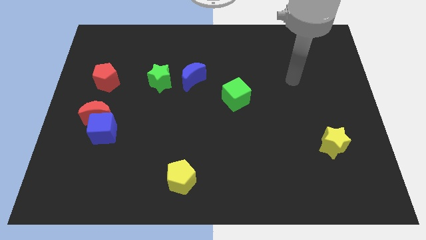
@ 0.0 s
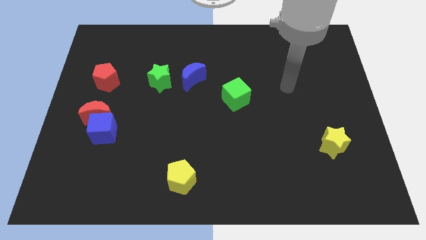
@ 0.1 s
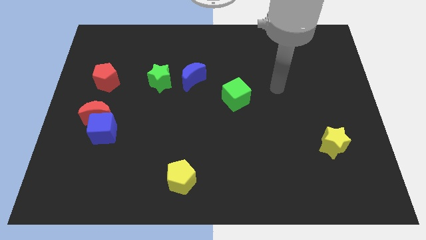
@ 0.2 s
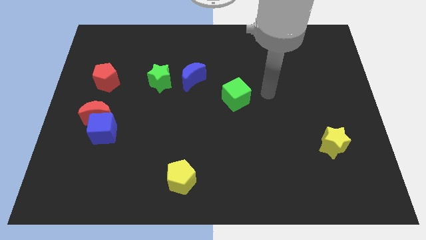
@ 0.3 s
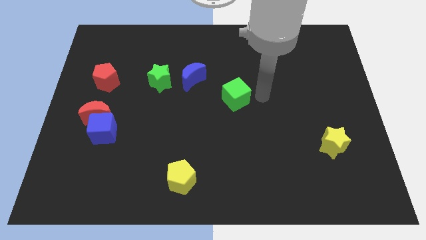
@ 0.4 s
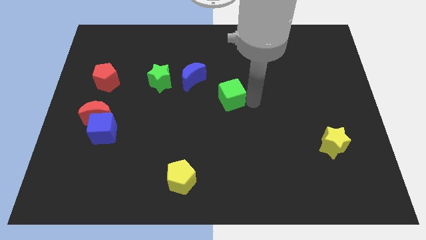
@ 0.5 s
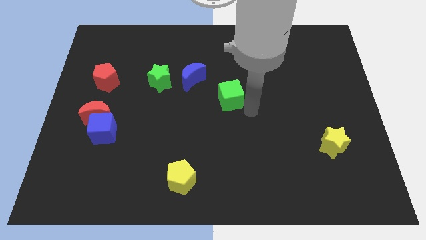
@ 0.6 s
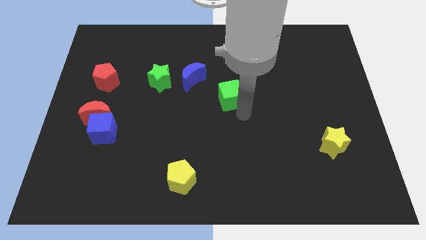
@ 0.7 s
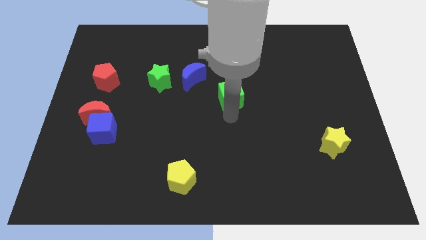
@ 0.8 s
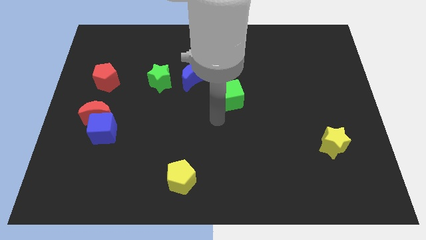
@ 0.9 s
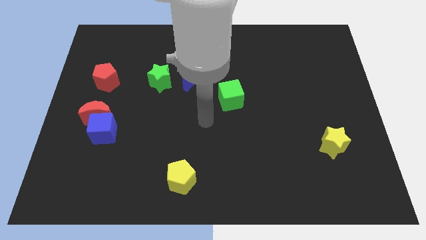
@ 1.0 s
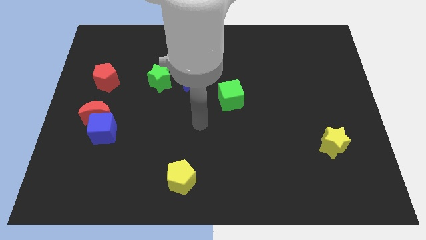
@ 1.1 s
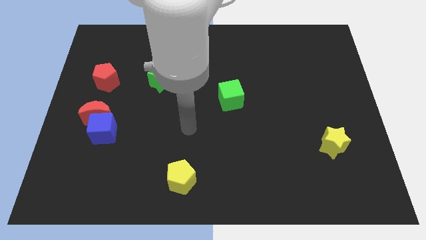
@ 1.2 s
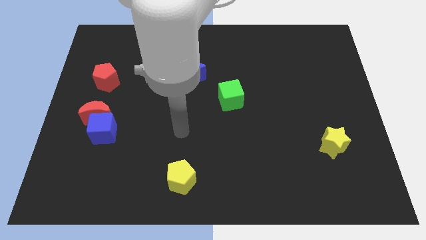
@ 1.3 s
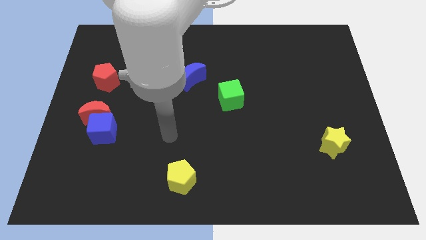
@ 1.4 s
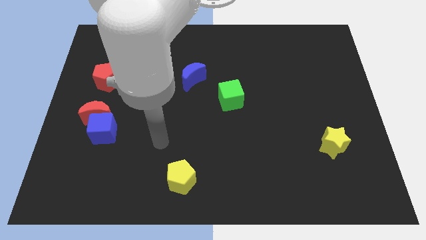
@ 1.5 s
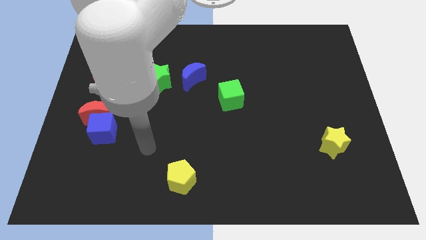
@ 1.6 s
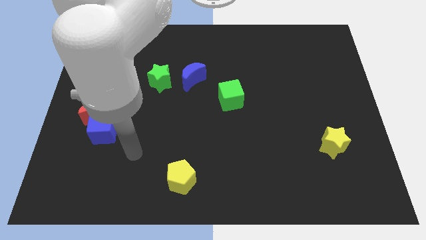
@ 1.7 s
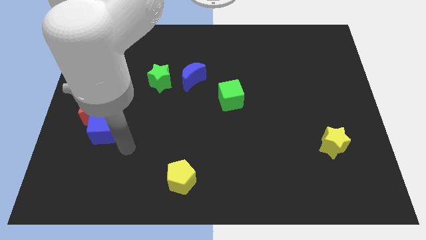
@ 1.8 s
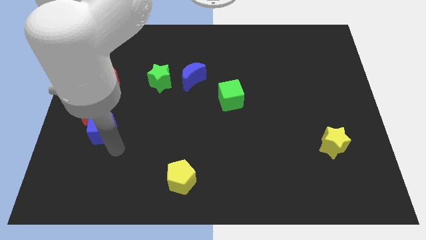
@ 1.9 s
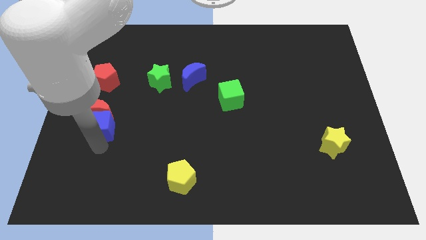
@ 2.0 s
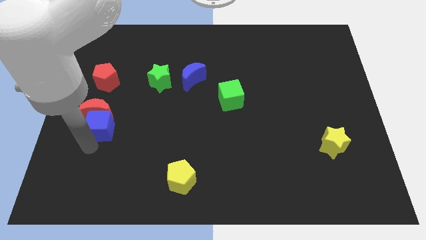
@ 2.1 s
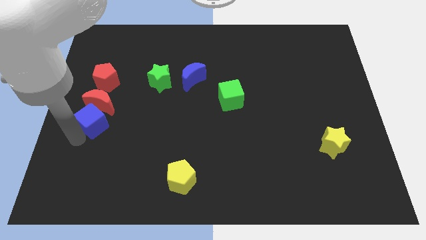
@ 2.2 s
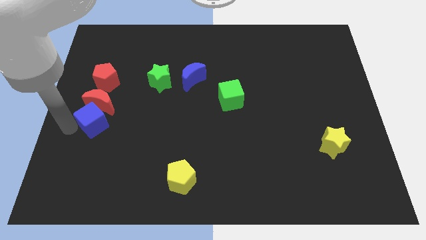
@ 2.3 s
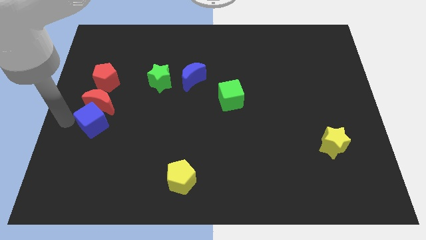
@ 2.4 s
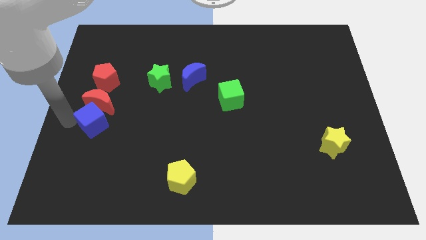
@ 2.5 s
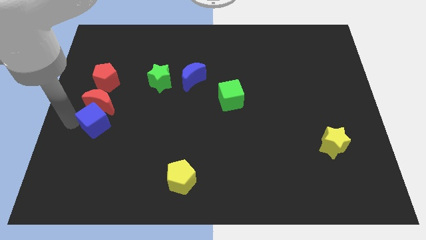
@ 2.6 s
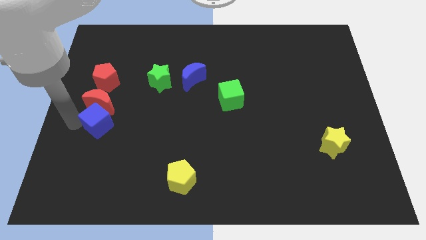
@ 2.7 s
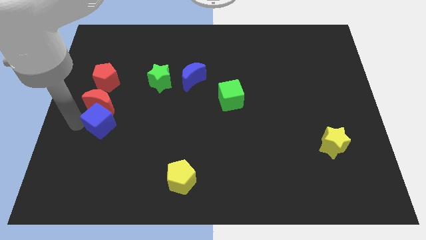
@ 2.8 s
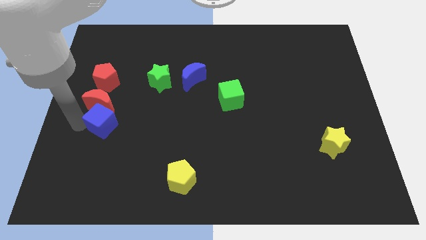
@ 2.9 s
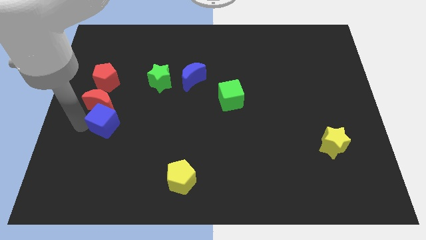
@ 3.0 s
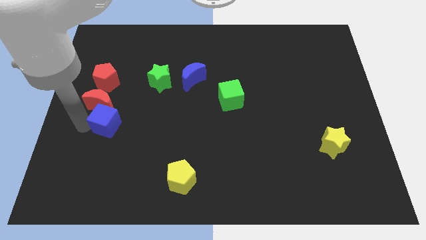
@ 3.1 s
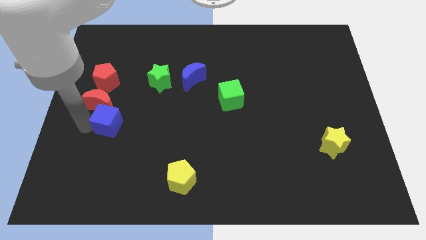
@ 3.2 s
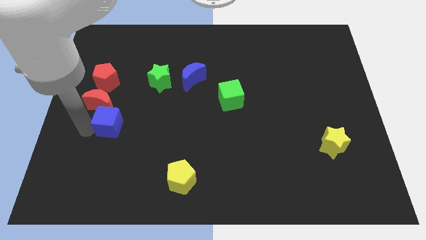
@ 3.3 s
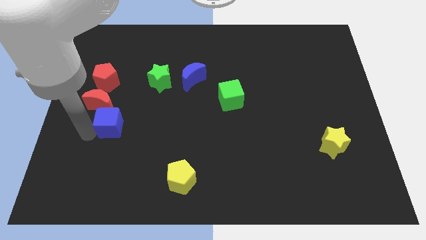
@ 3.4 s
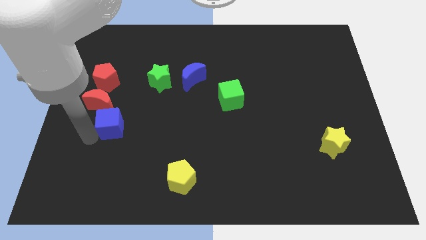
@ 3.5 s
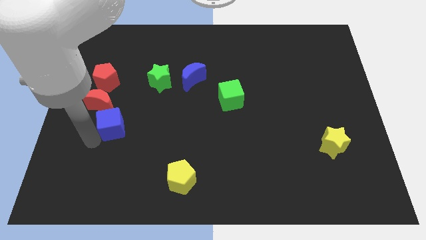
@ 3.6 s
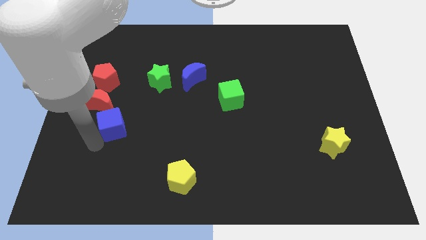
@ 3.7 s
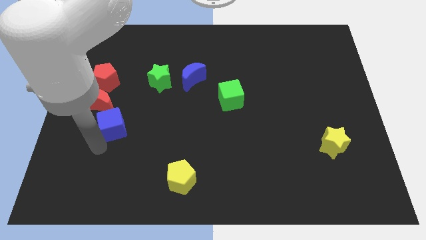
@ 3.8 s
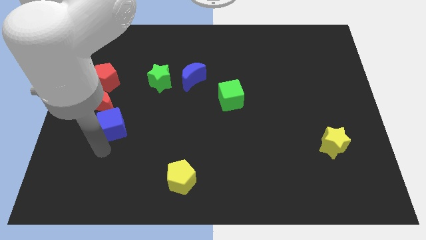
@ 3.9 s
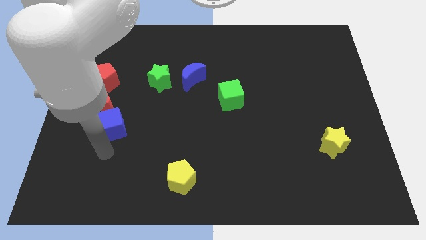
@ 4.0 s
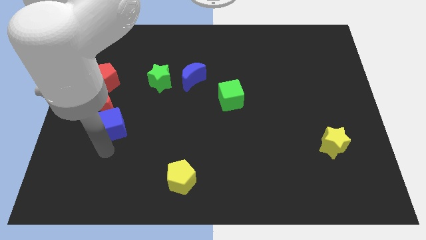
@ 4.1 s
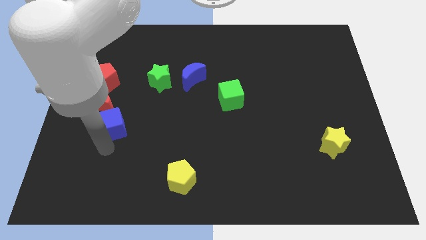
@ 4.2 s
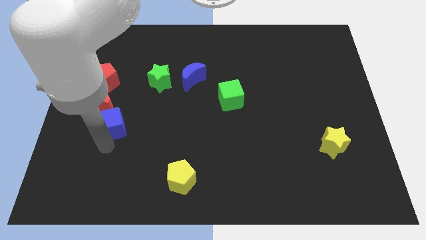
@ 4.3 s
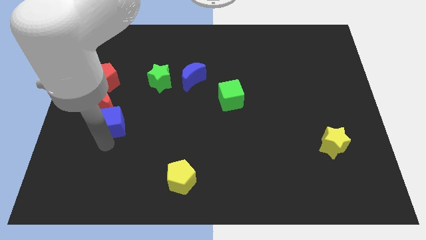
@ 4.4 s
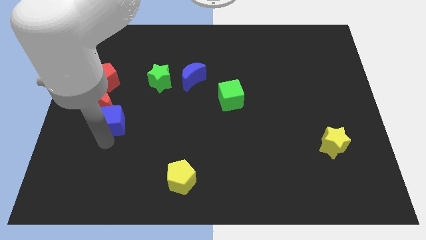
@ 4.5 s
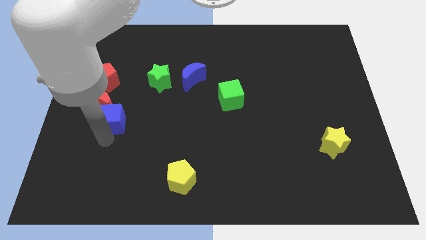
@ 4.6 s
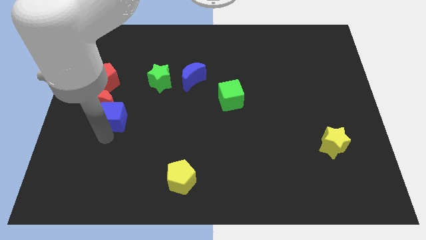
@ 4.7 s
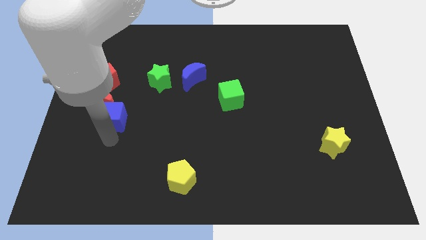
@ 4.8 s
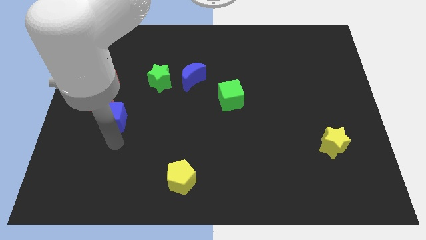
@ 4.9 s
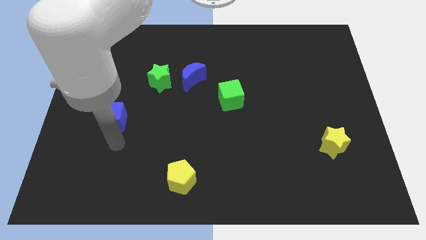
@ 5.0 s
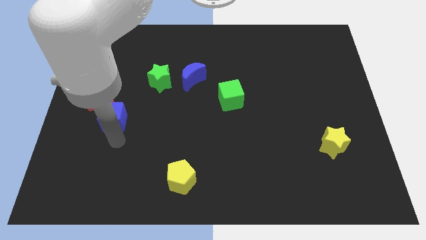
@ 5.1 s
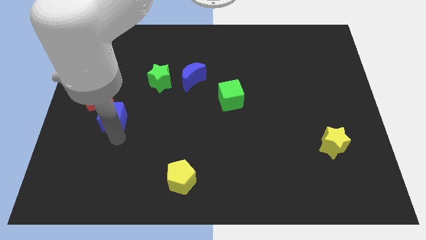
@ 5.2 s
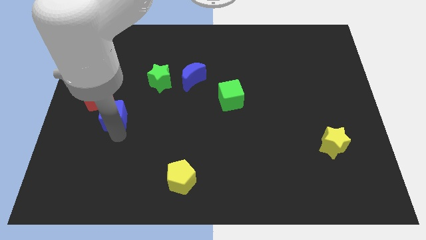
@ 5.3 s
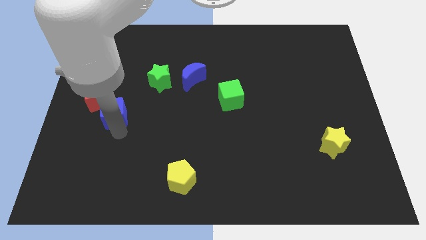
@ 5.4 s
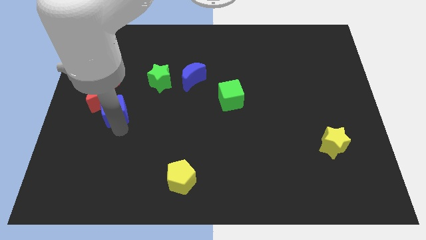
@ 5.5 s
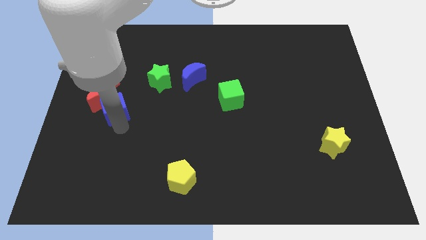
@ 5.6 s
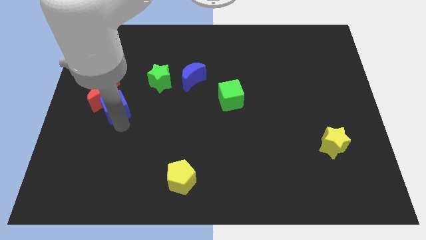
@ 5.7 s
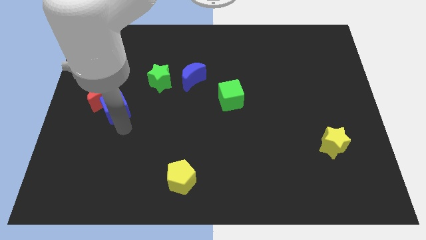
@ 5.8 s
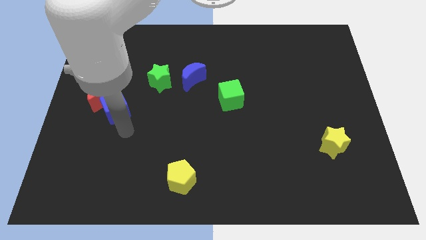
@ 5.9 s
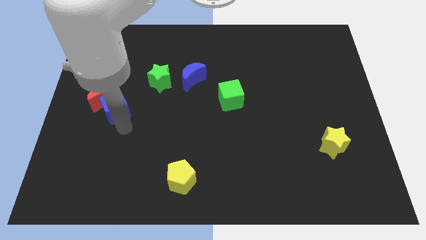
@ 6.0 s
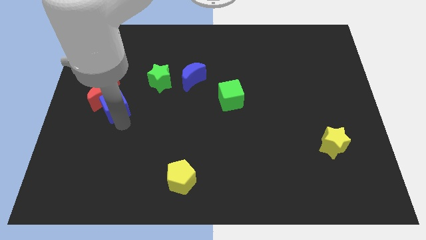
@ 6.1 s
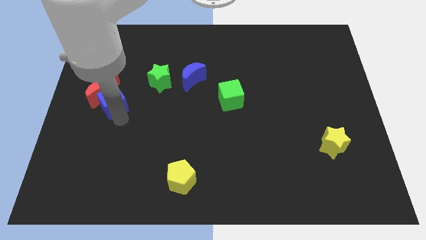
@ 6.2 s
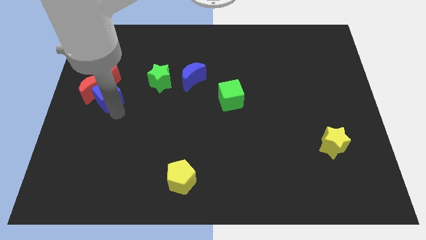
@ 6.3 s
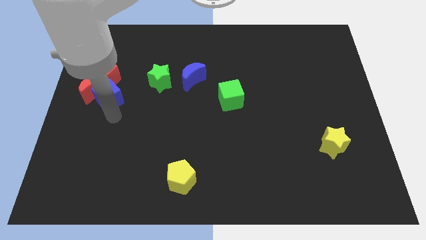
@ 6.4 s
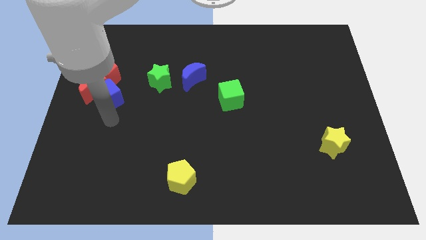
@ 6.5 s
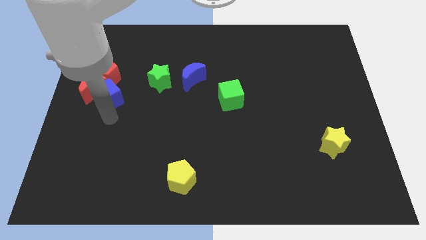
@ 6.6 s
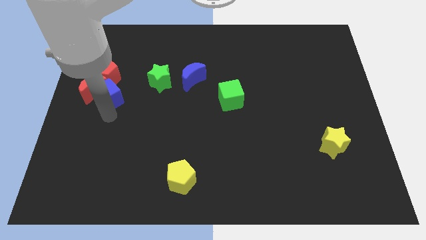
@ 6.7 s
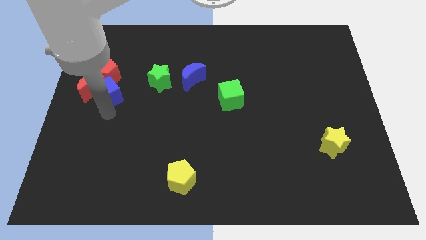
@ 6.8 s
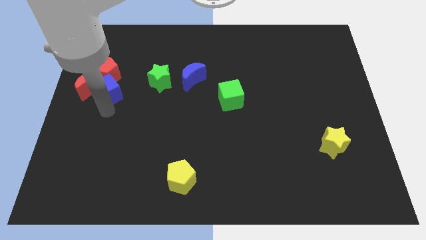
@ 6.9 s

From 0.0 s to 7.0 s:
slide the blue cube towards the red pentagon
